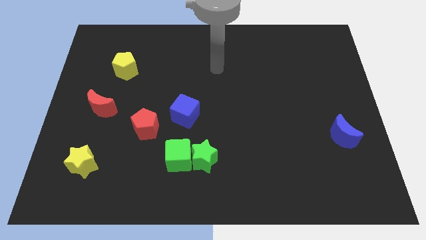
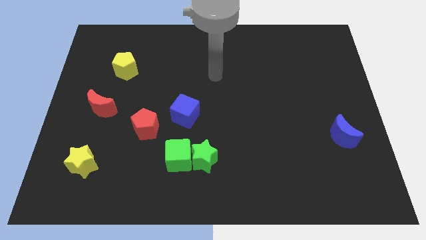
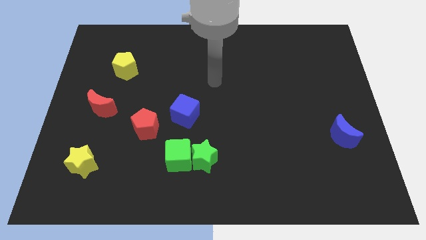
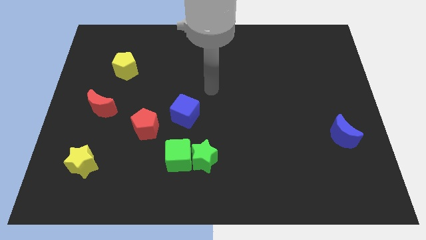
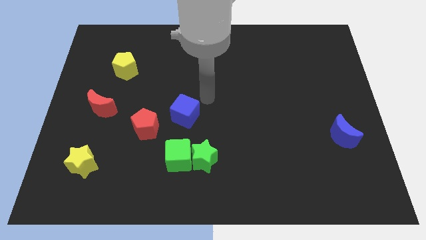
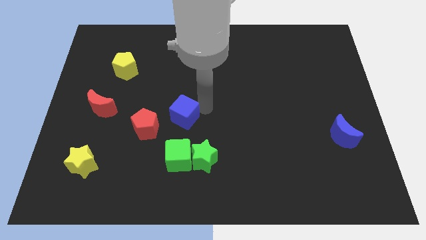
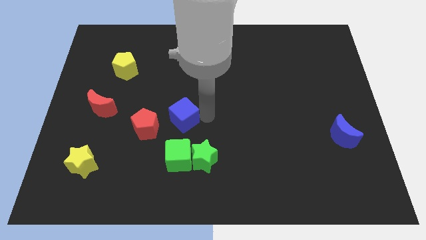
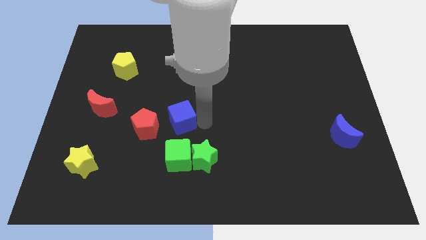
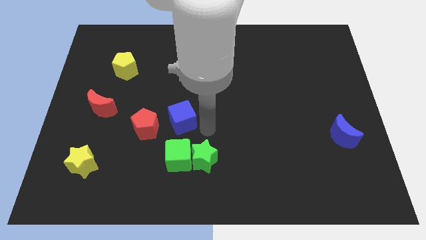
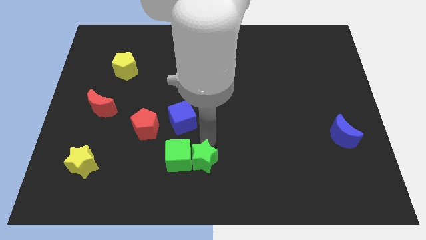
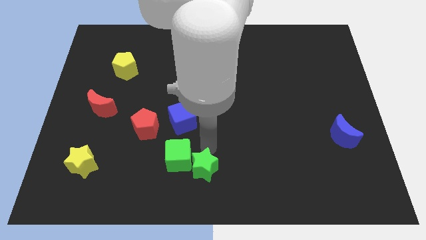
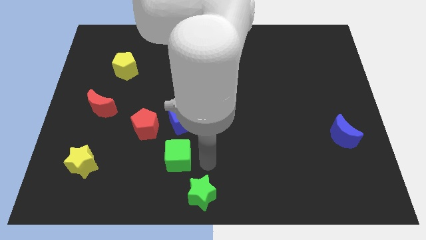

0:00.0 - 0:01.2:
move the green cube away from the green star

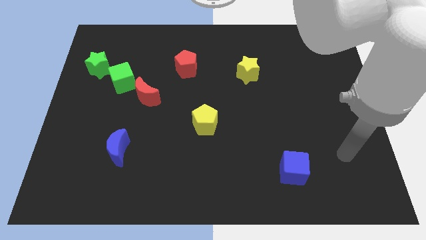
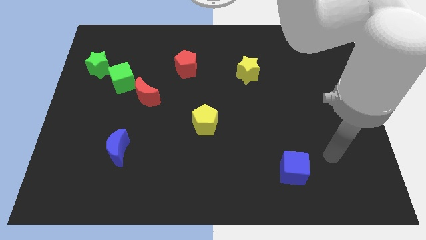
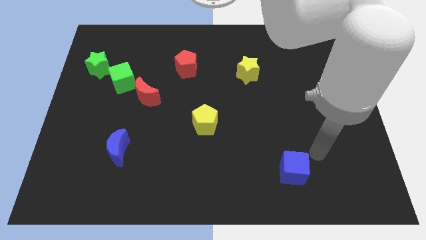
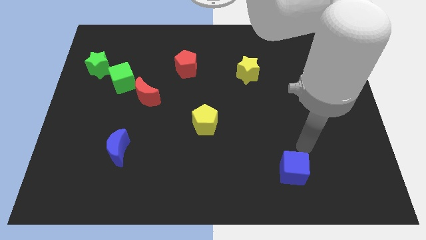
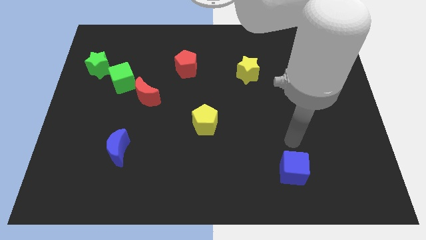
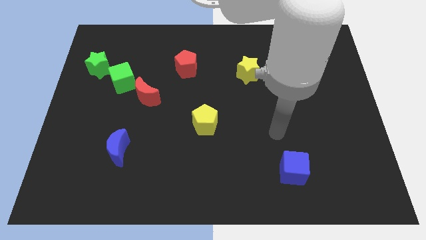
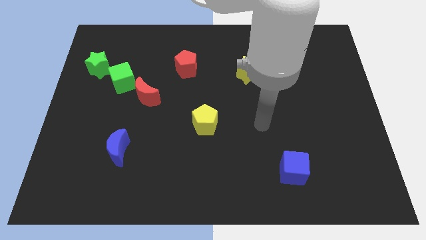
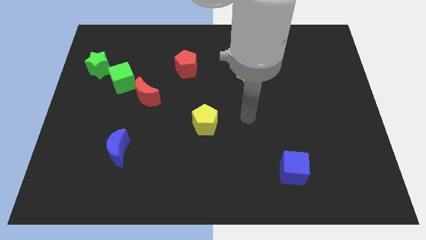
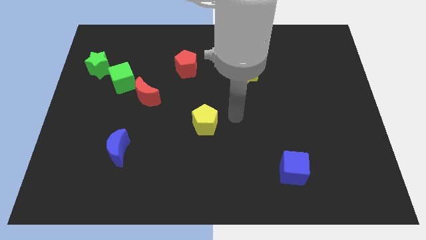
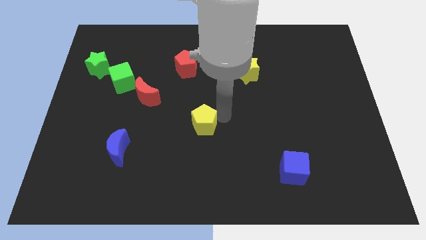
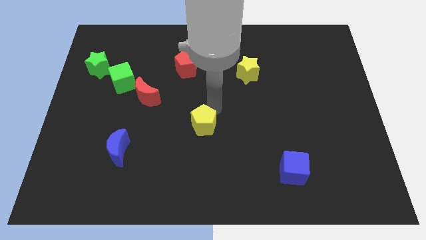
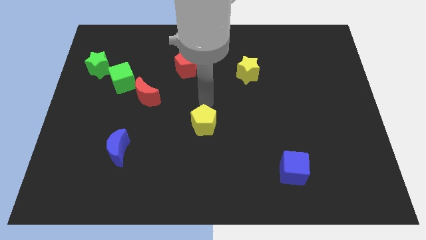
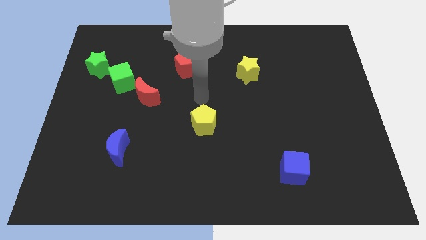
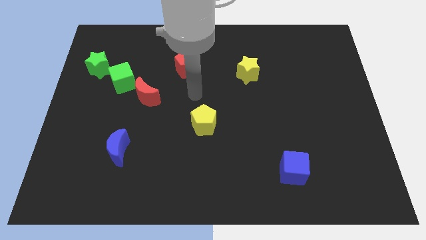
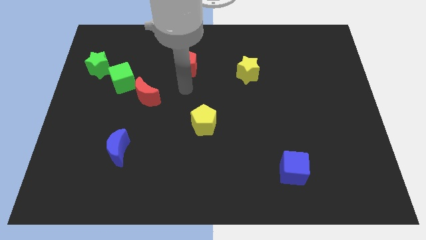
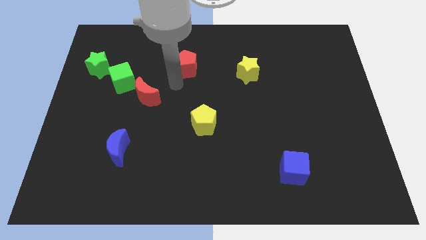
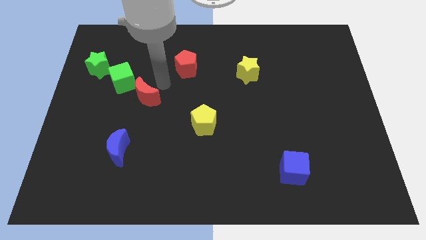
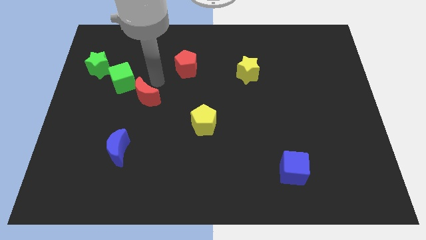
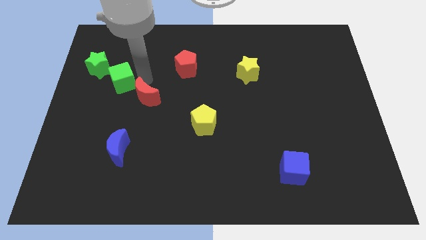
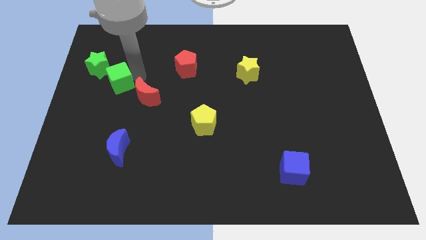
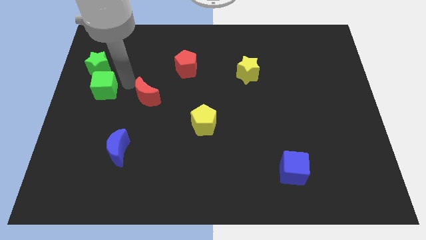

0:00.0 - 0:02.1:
move the red moon away from the green cube

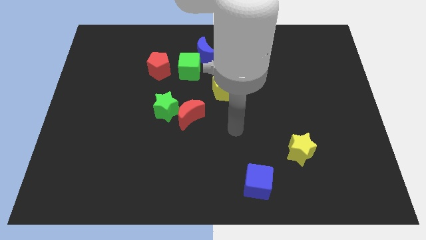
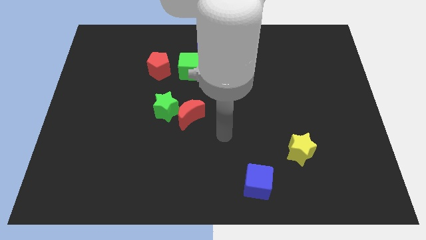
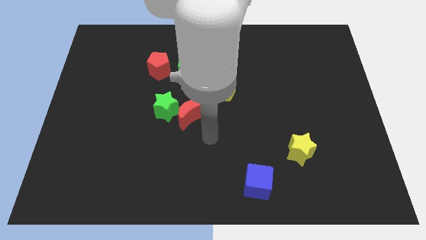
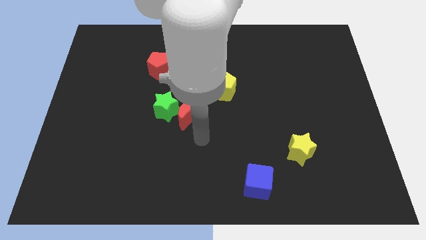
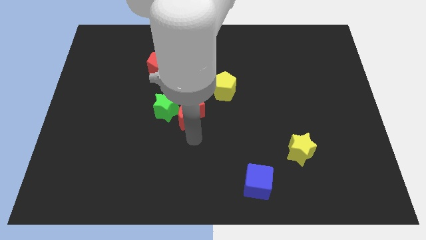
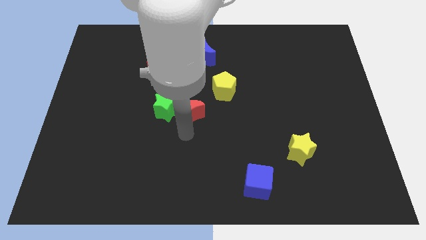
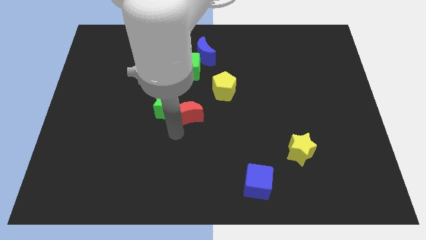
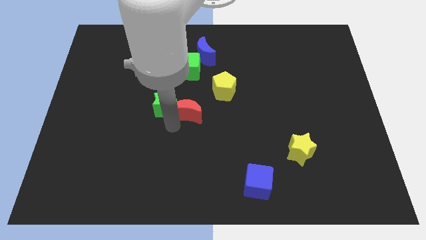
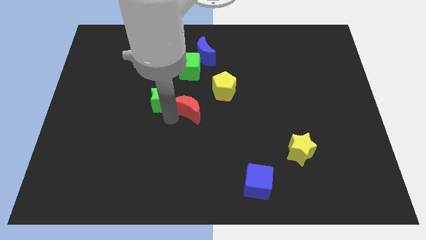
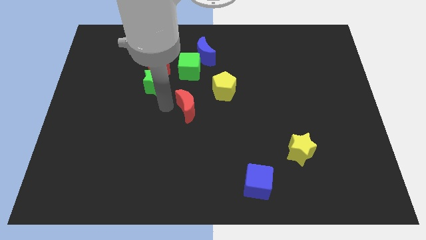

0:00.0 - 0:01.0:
separate the red moon from the green star

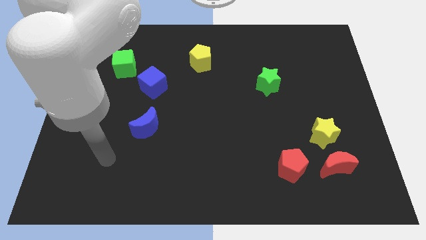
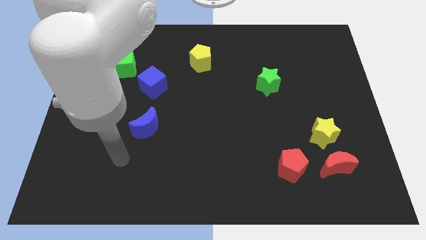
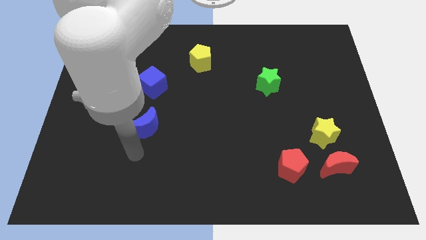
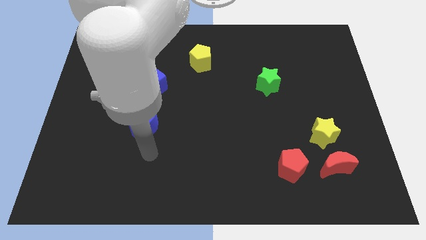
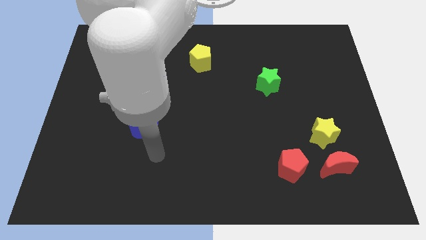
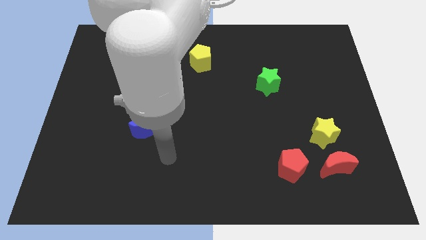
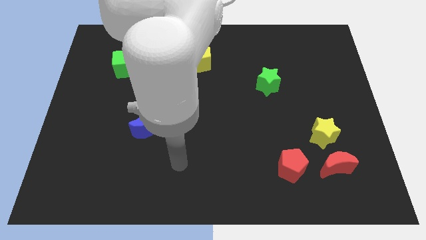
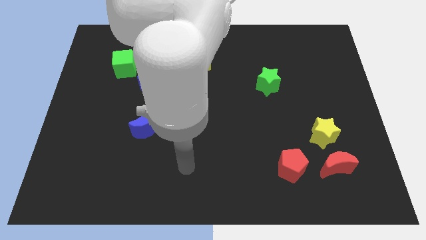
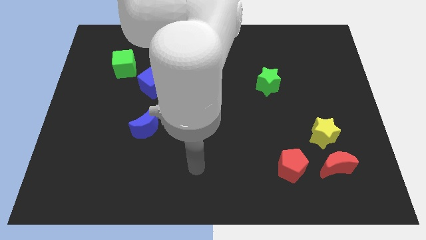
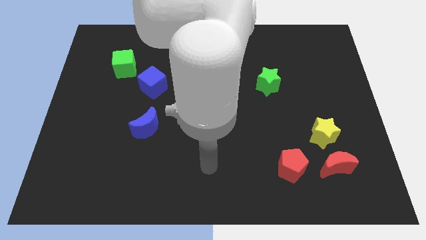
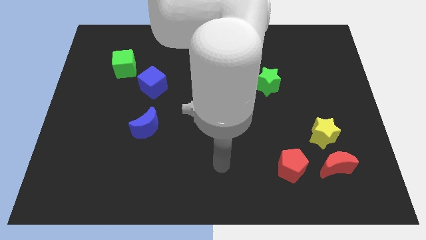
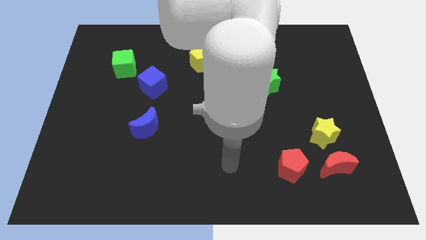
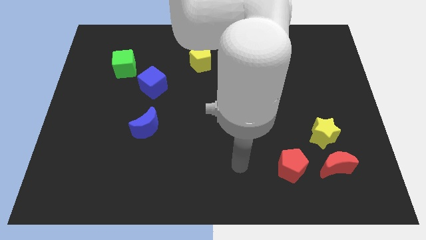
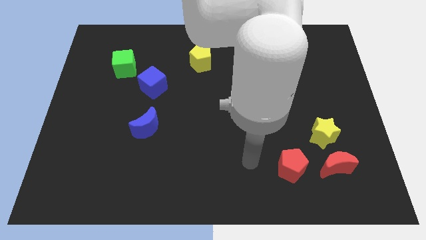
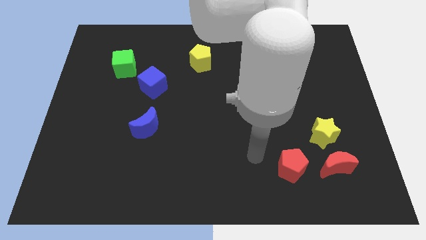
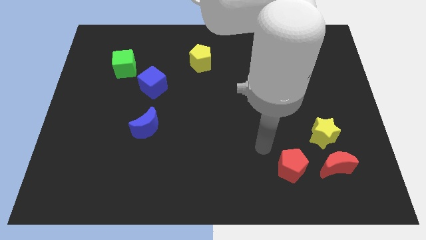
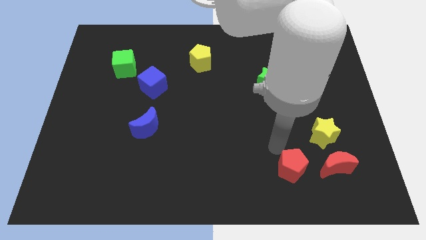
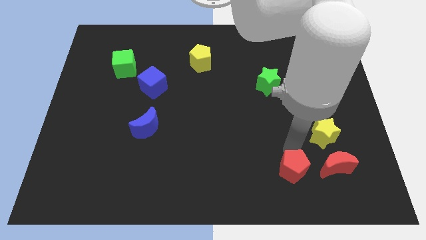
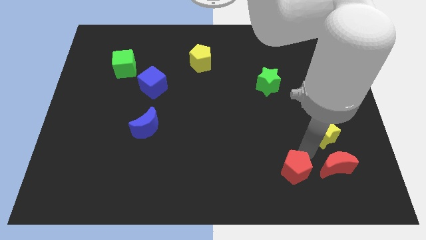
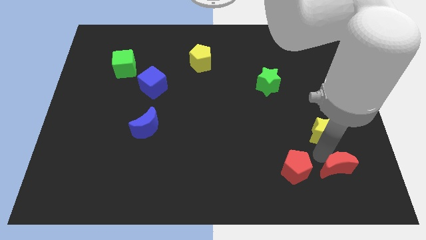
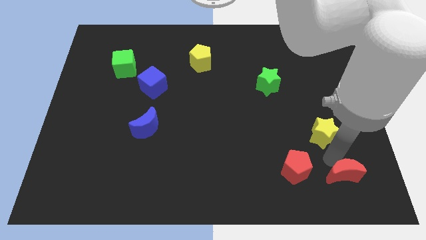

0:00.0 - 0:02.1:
move the yellow star away from the red moon

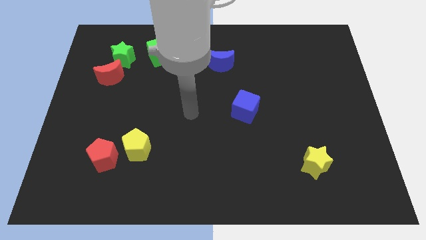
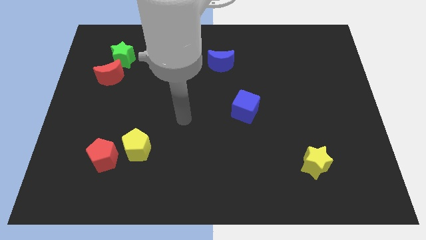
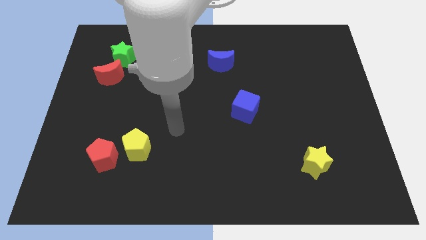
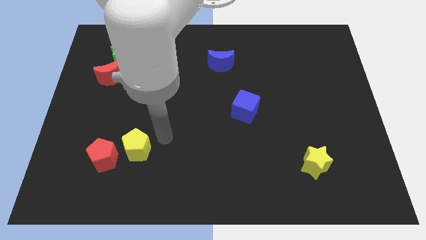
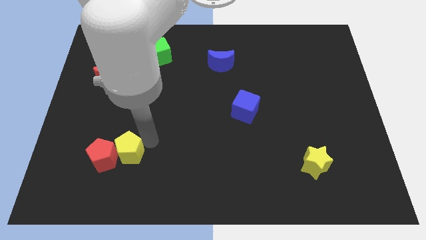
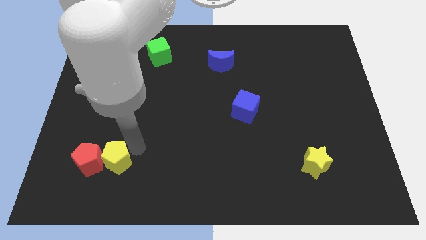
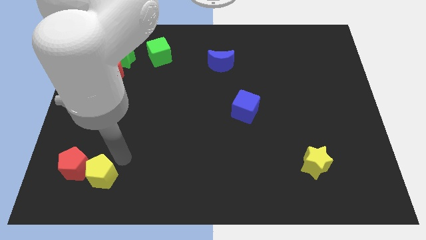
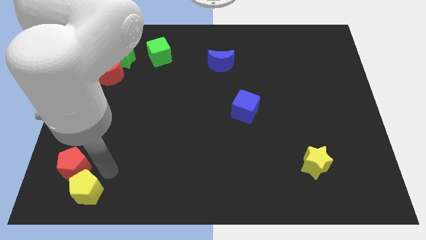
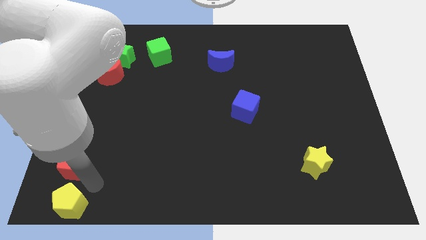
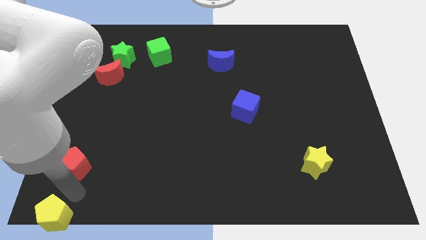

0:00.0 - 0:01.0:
separate the red pentagon from the yellow pentagon

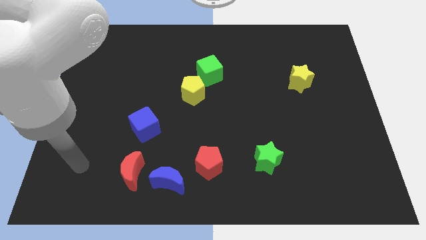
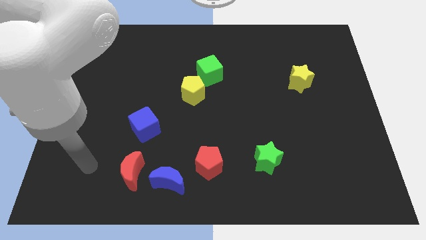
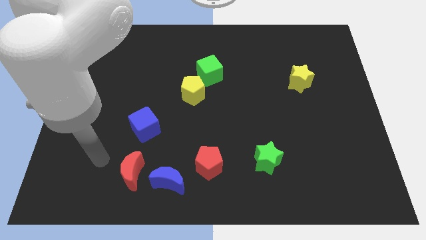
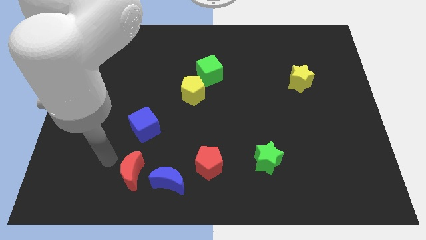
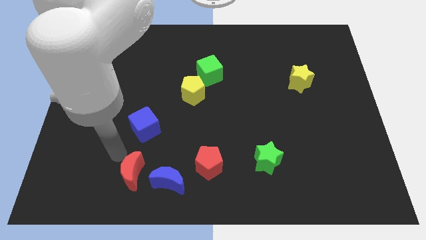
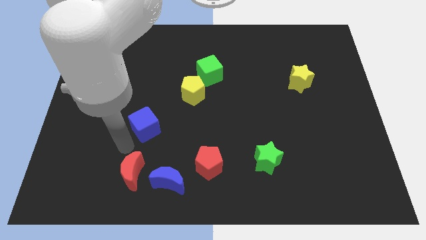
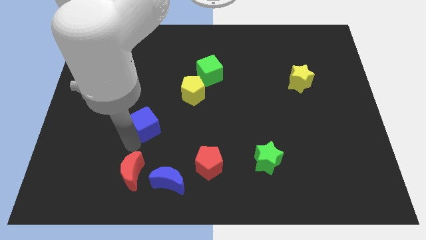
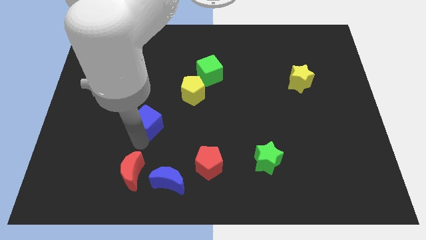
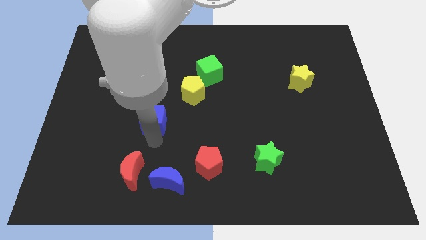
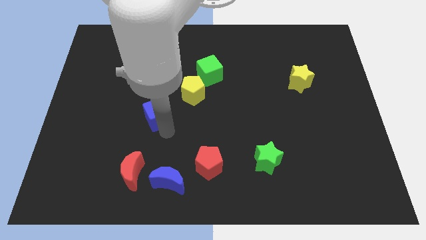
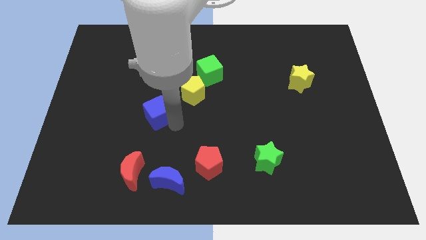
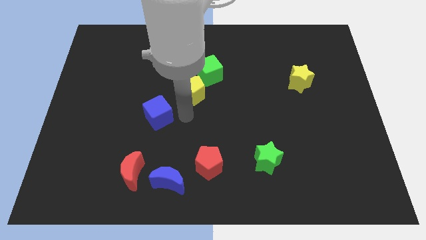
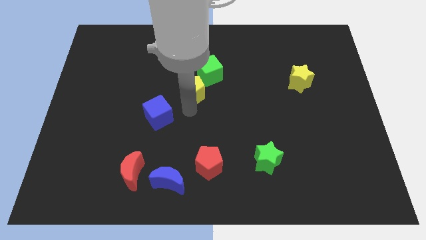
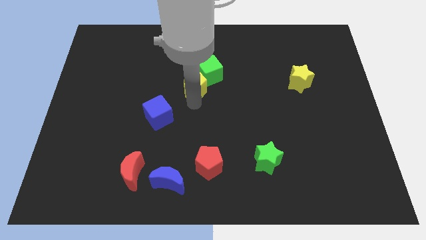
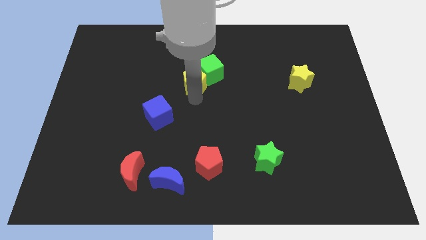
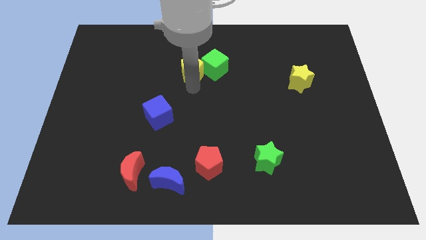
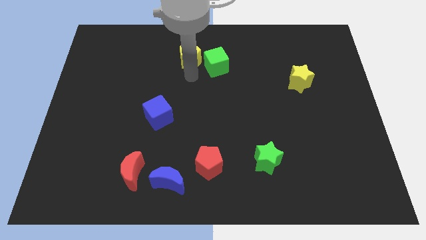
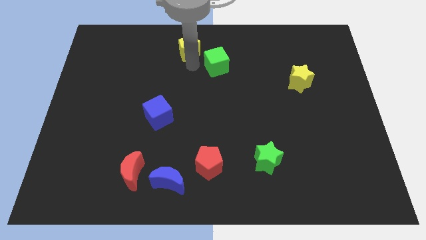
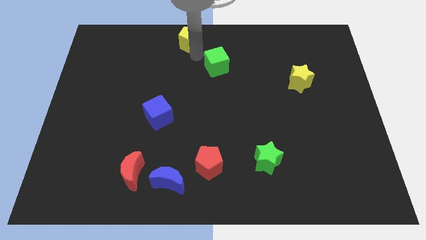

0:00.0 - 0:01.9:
pull the green cube apart from the yellow pentagon
